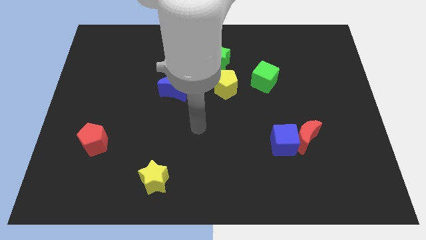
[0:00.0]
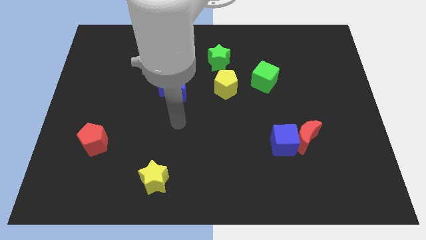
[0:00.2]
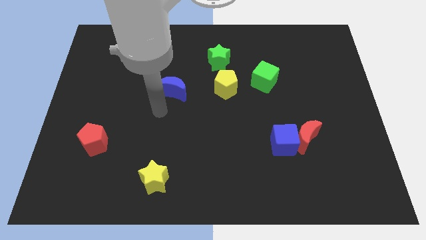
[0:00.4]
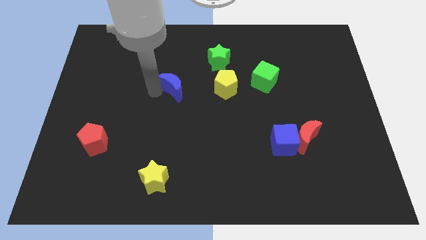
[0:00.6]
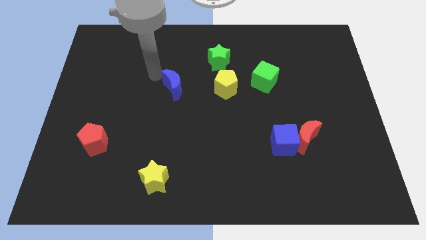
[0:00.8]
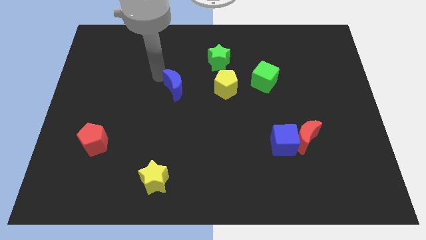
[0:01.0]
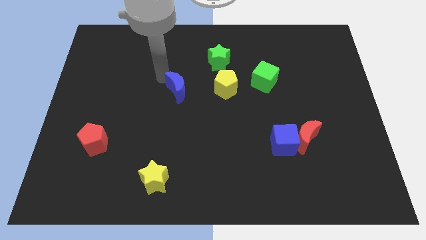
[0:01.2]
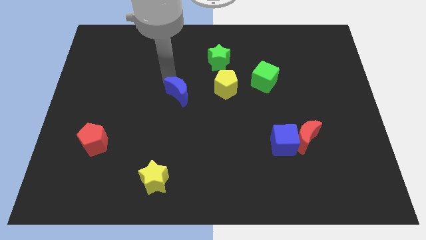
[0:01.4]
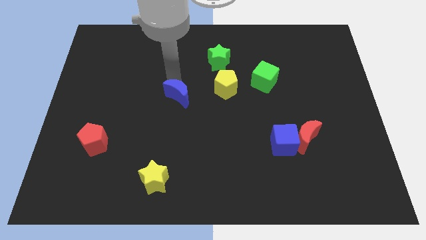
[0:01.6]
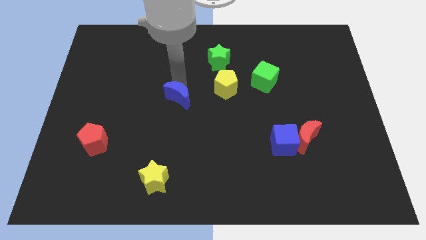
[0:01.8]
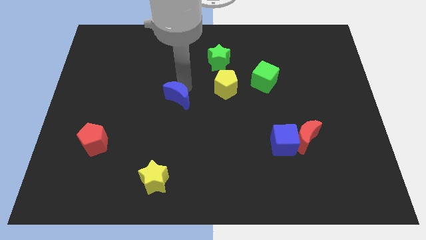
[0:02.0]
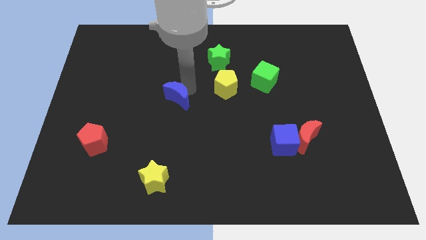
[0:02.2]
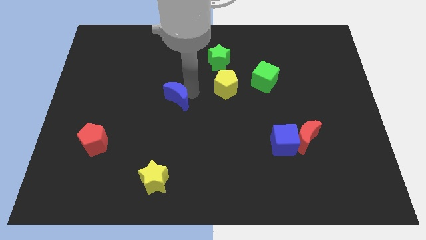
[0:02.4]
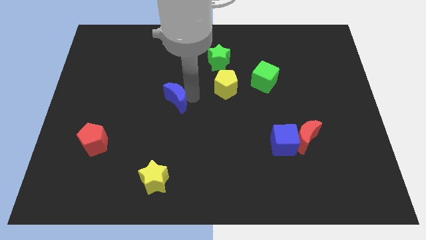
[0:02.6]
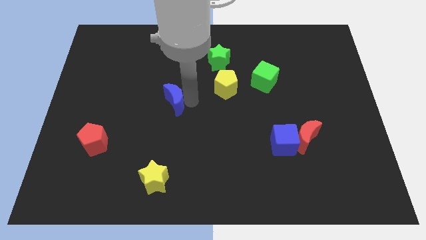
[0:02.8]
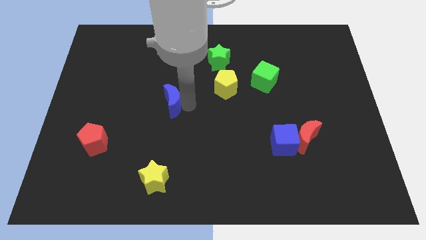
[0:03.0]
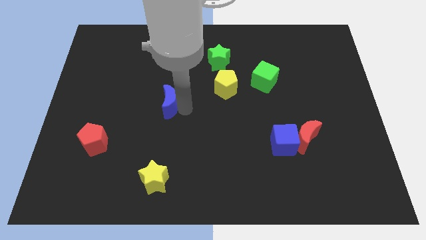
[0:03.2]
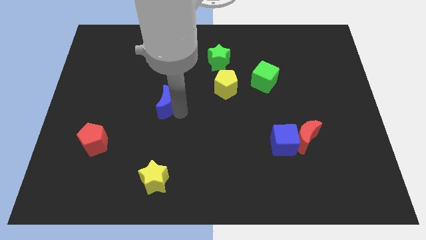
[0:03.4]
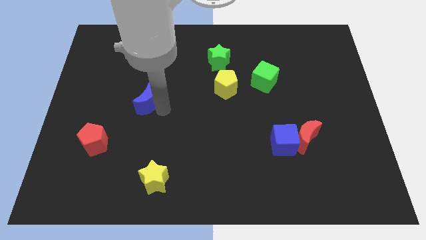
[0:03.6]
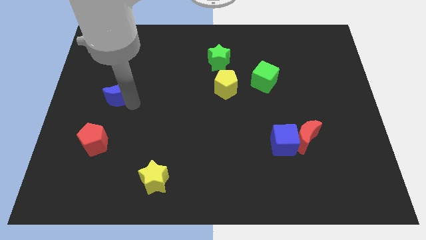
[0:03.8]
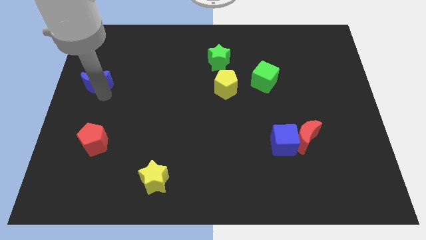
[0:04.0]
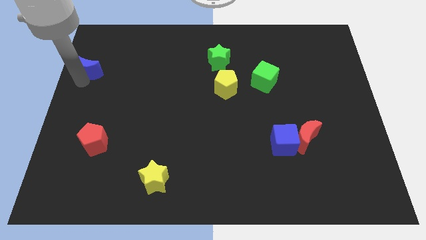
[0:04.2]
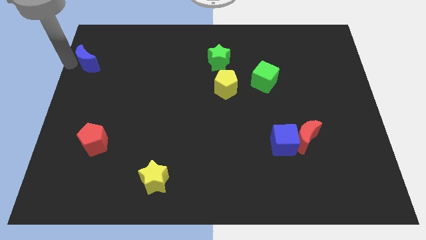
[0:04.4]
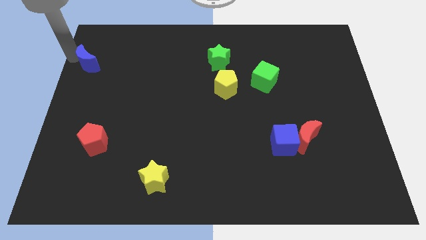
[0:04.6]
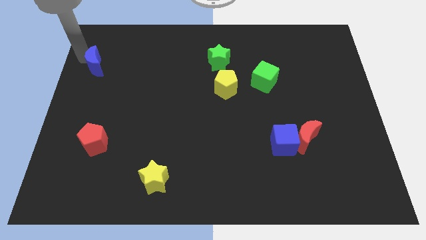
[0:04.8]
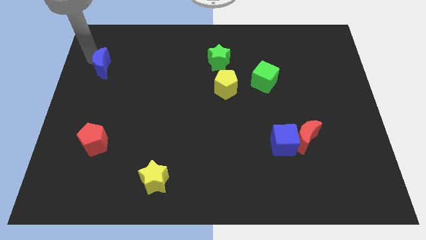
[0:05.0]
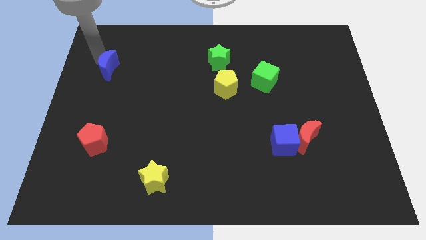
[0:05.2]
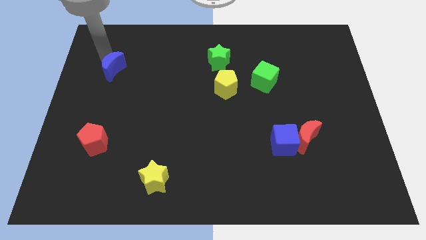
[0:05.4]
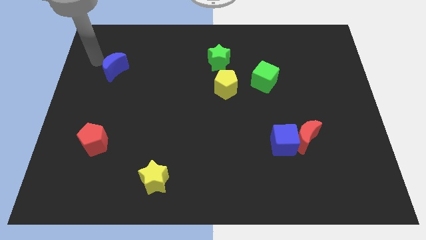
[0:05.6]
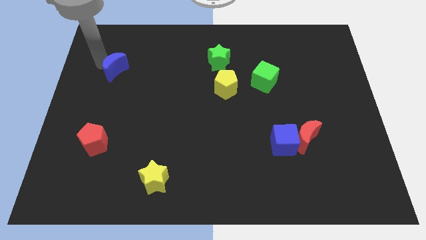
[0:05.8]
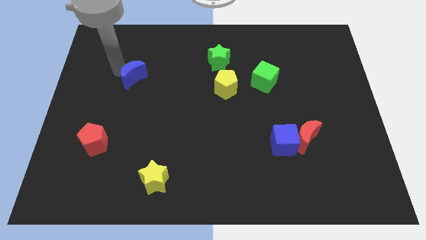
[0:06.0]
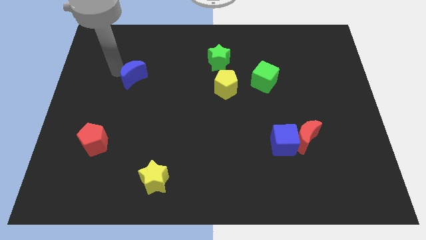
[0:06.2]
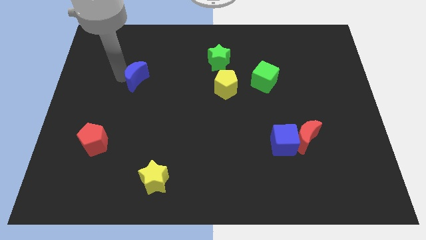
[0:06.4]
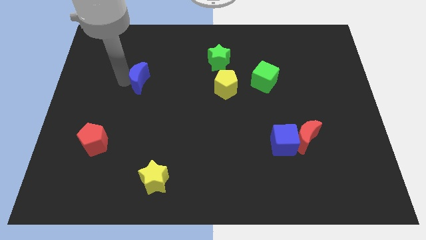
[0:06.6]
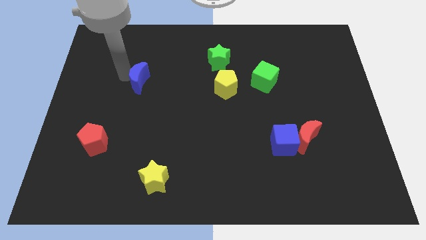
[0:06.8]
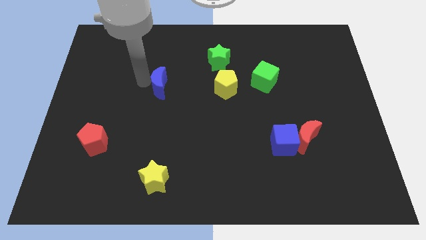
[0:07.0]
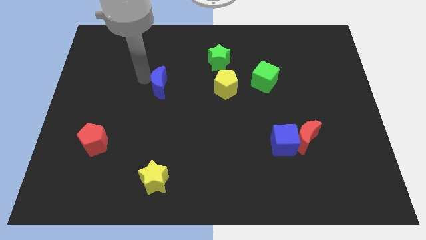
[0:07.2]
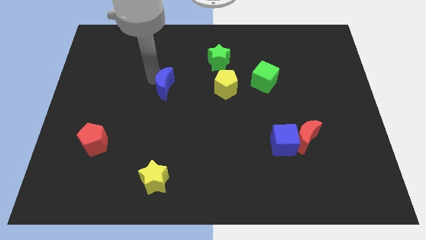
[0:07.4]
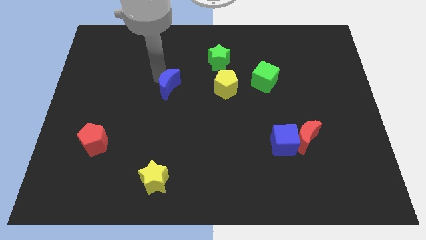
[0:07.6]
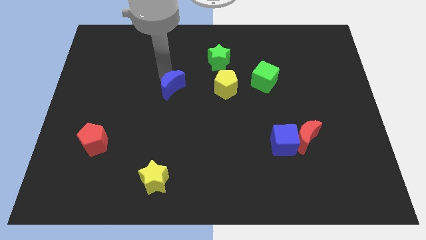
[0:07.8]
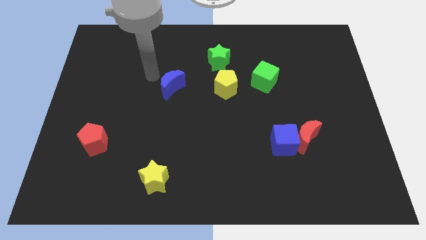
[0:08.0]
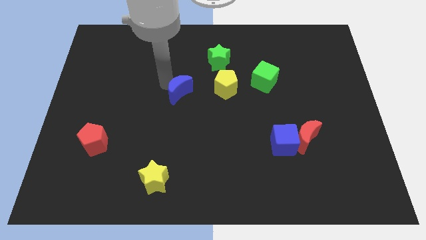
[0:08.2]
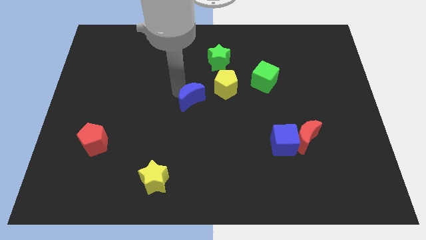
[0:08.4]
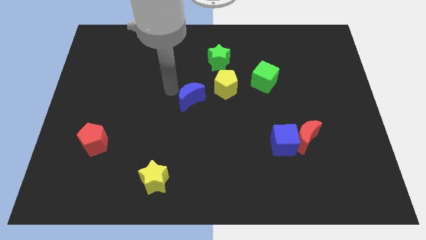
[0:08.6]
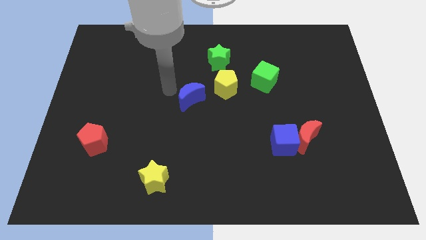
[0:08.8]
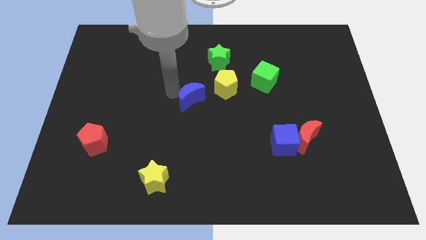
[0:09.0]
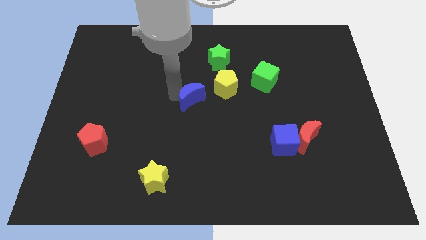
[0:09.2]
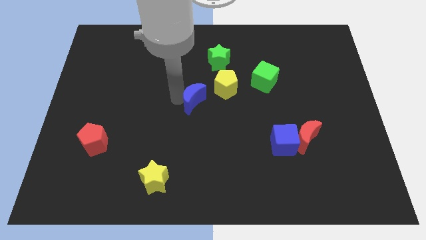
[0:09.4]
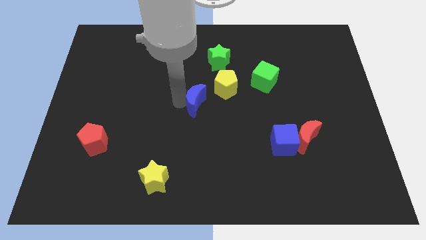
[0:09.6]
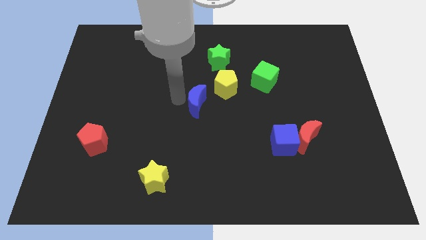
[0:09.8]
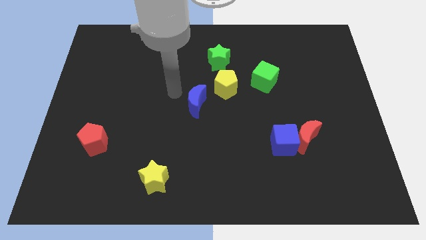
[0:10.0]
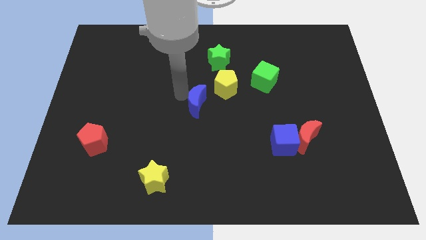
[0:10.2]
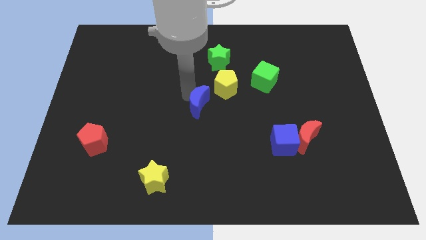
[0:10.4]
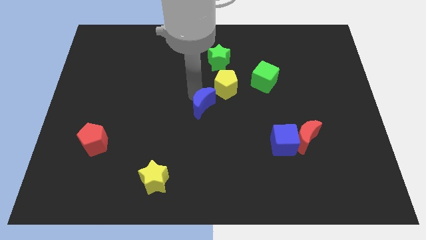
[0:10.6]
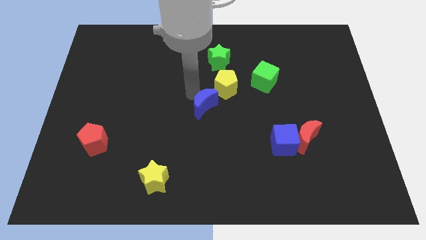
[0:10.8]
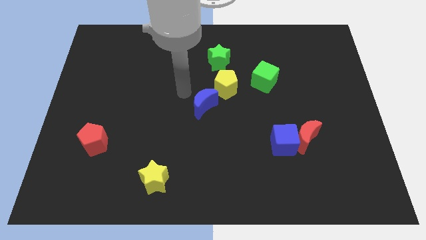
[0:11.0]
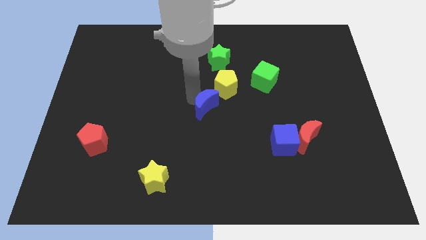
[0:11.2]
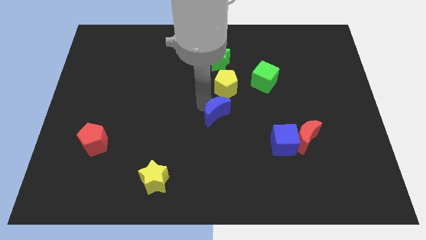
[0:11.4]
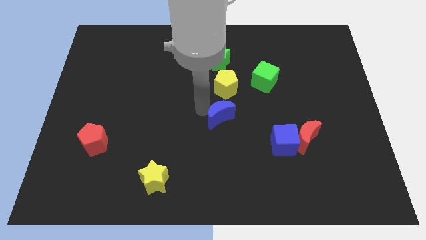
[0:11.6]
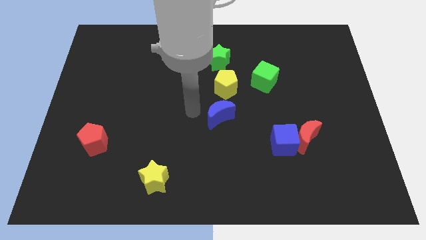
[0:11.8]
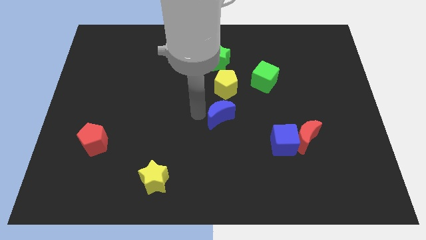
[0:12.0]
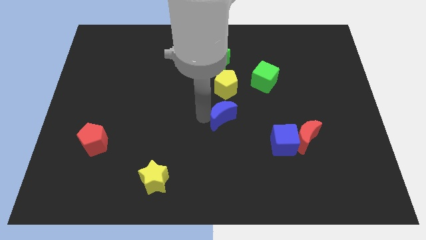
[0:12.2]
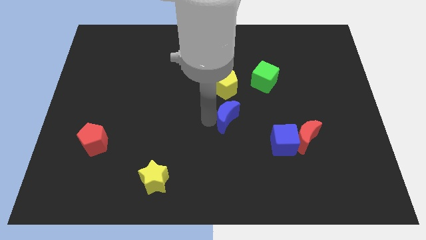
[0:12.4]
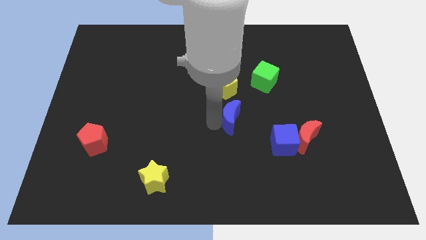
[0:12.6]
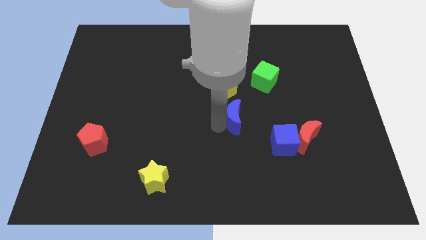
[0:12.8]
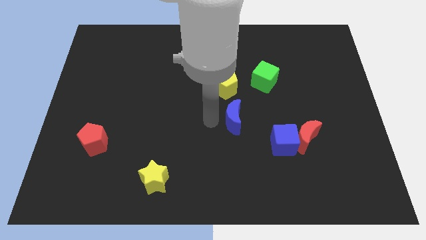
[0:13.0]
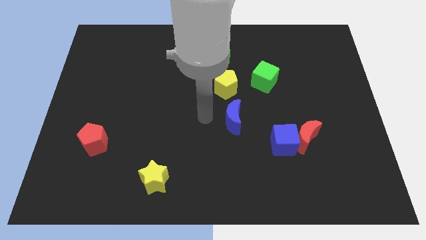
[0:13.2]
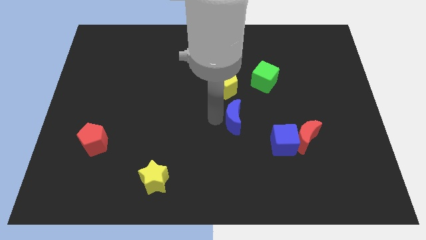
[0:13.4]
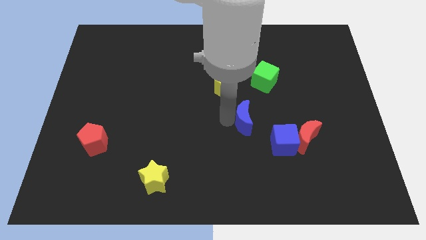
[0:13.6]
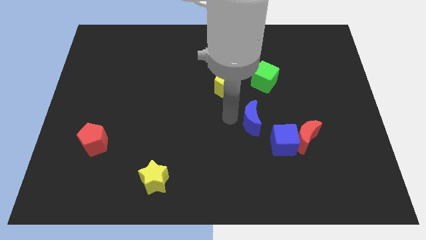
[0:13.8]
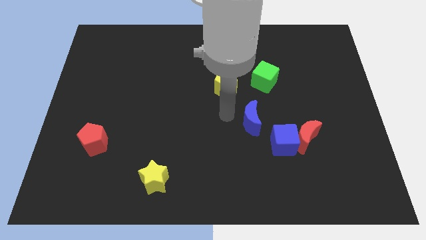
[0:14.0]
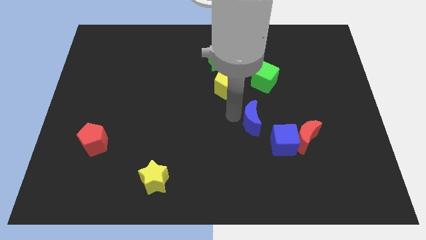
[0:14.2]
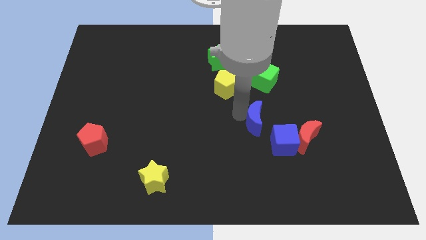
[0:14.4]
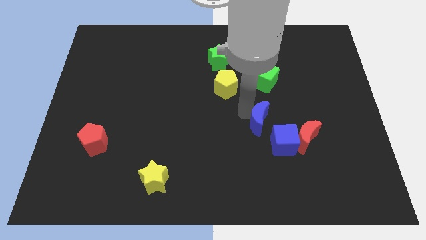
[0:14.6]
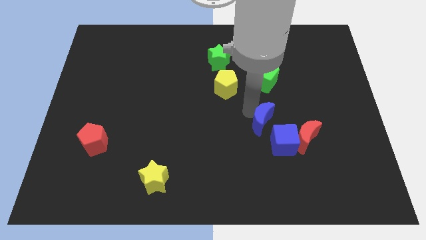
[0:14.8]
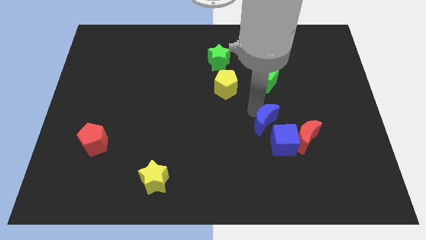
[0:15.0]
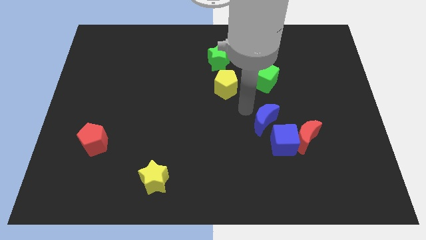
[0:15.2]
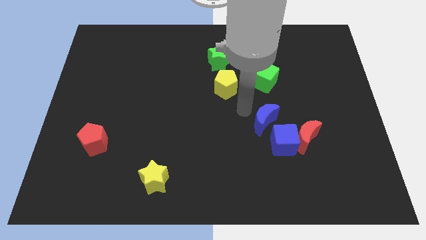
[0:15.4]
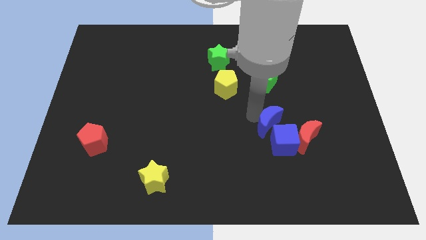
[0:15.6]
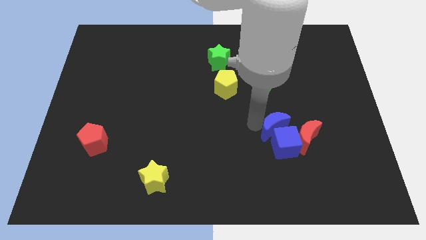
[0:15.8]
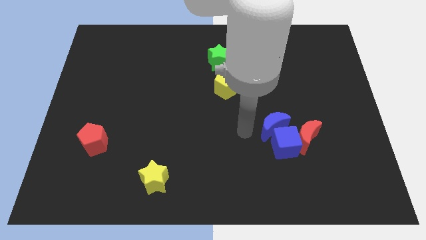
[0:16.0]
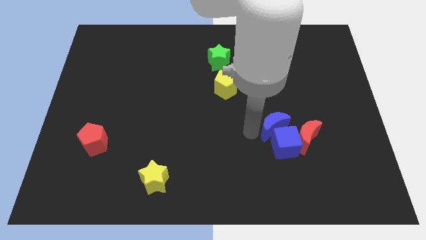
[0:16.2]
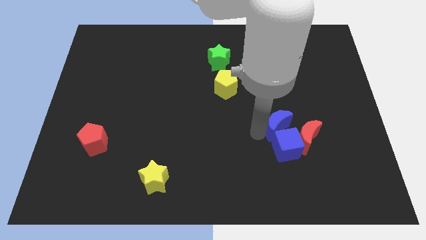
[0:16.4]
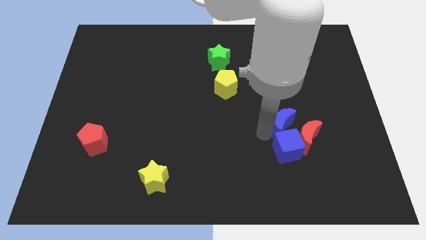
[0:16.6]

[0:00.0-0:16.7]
slide the blue moon close to the red moon
